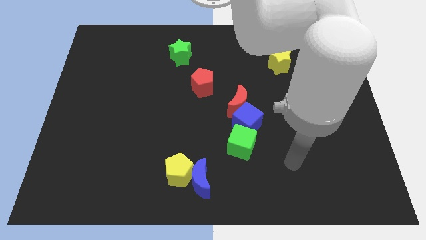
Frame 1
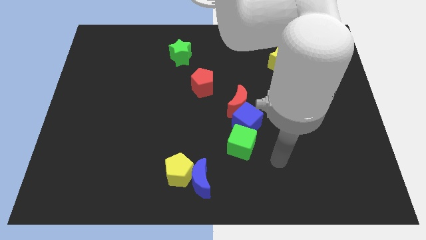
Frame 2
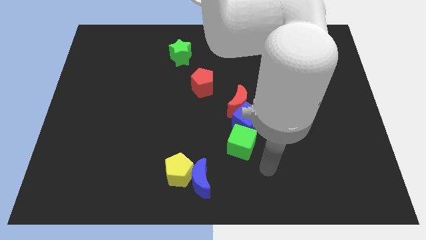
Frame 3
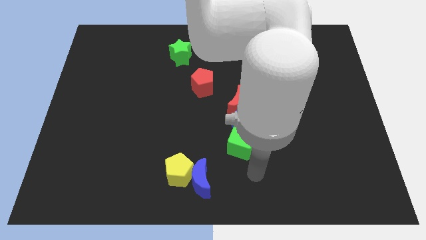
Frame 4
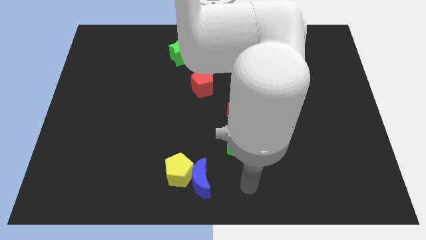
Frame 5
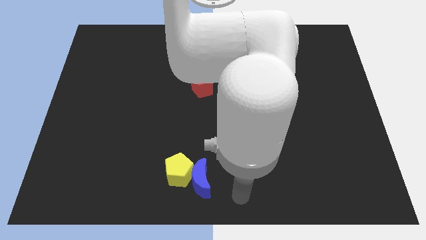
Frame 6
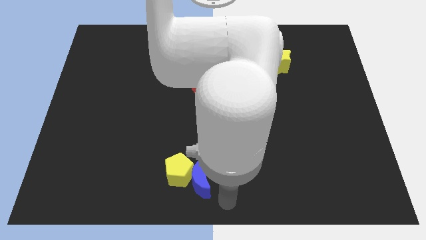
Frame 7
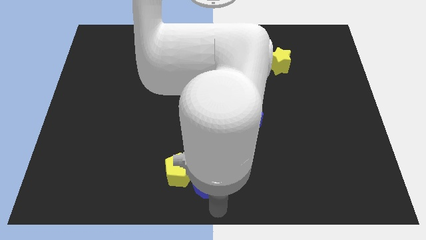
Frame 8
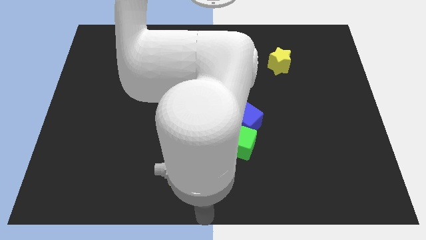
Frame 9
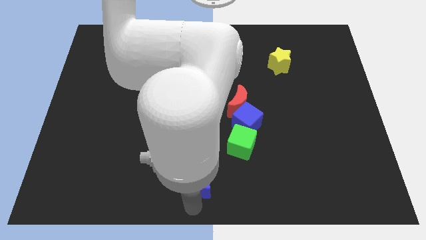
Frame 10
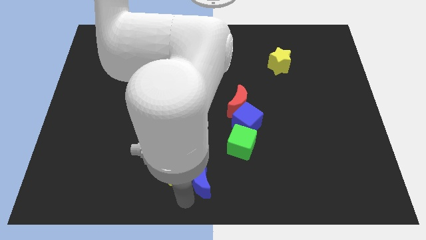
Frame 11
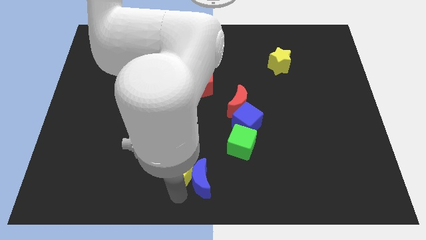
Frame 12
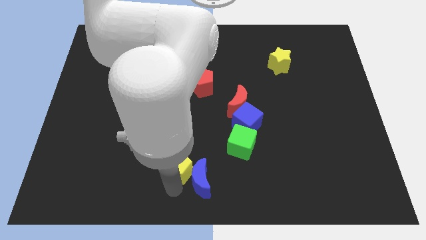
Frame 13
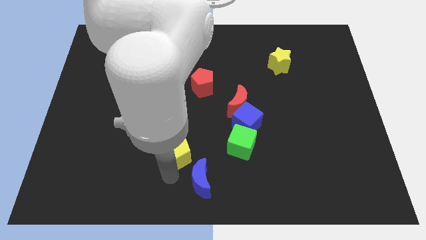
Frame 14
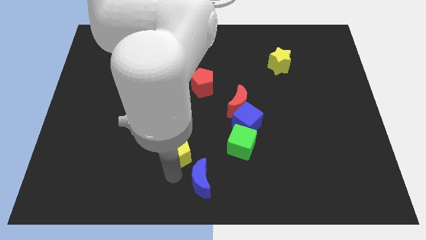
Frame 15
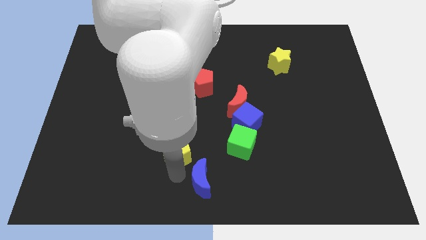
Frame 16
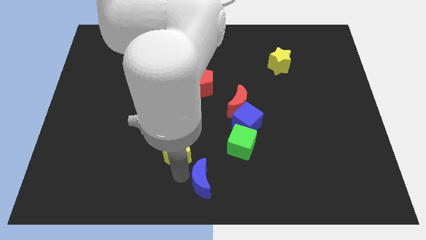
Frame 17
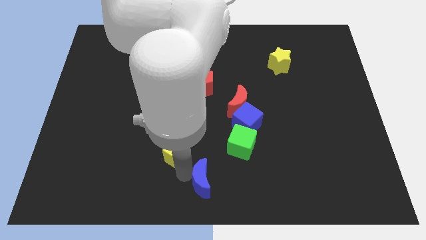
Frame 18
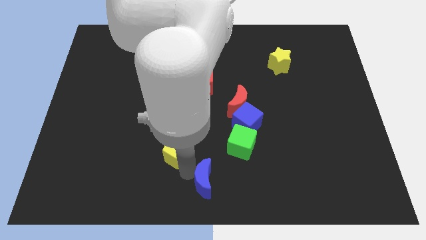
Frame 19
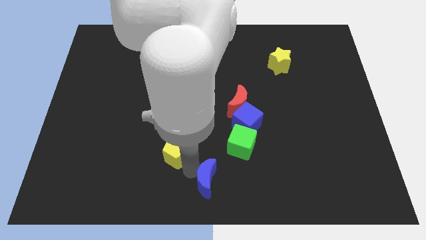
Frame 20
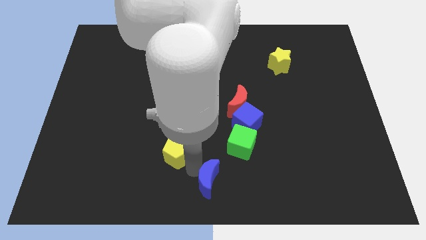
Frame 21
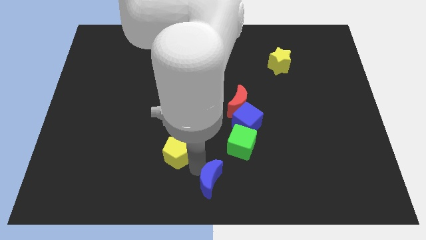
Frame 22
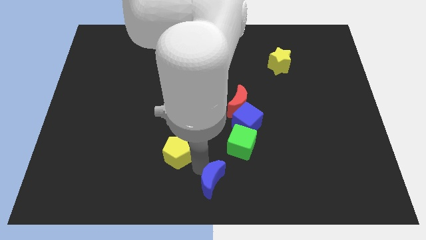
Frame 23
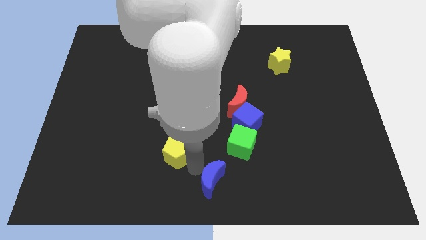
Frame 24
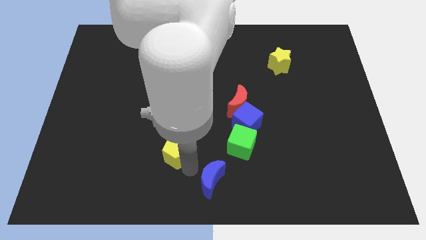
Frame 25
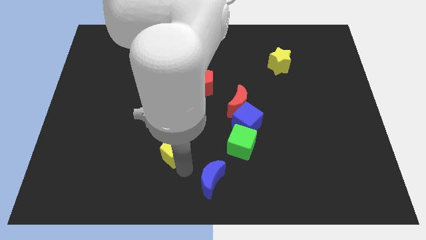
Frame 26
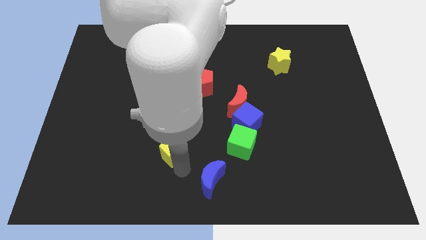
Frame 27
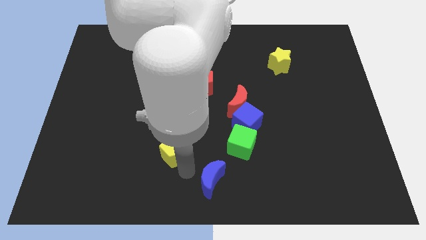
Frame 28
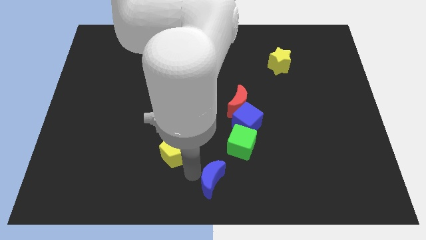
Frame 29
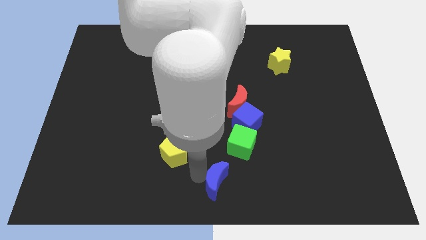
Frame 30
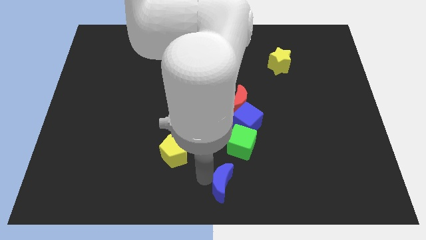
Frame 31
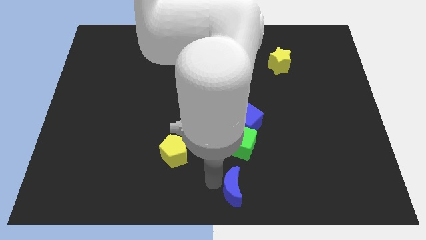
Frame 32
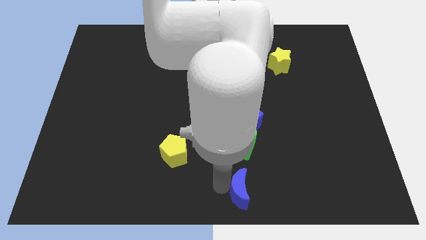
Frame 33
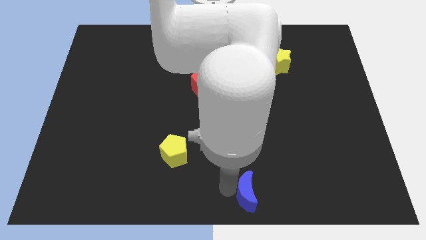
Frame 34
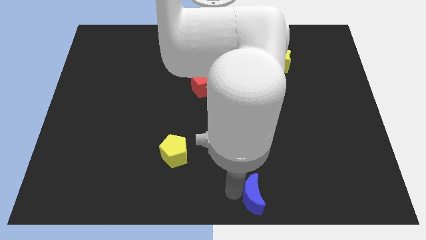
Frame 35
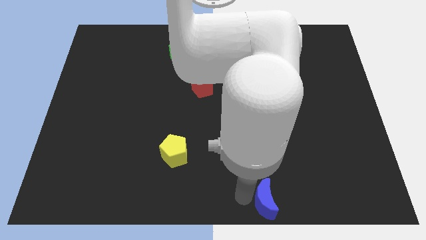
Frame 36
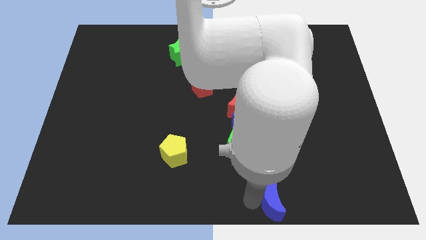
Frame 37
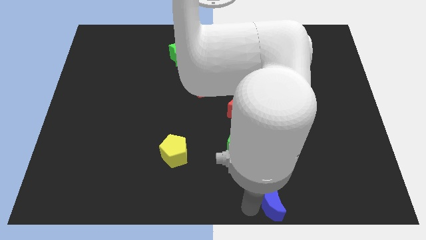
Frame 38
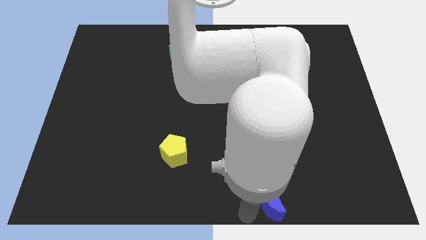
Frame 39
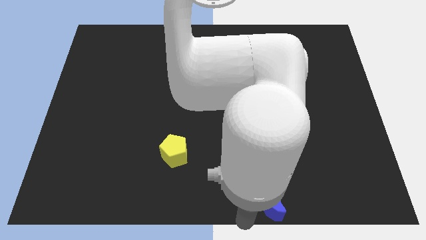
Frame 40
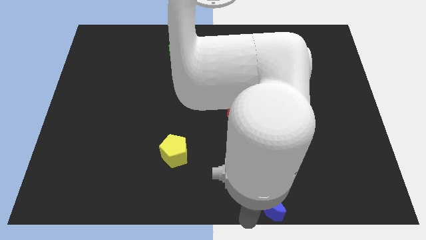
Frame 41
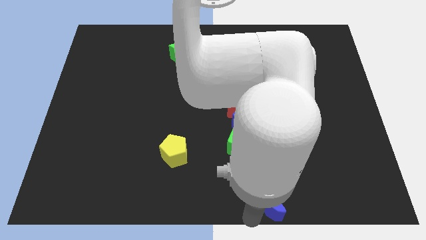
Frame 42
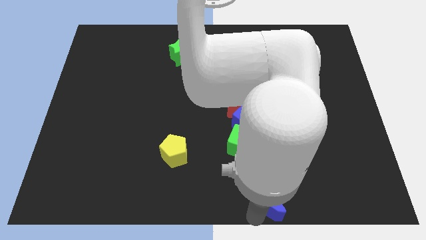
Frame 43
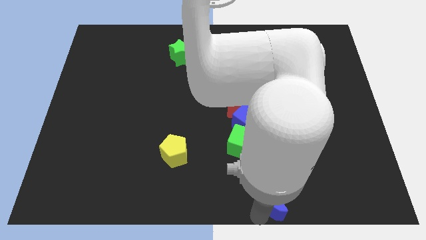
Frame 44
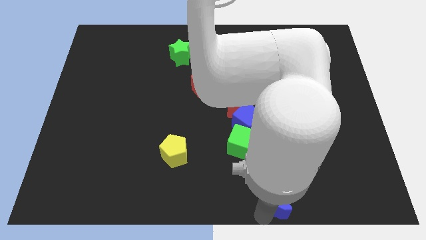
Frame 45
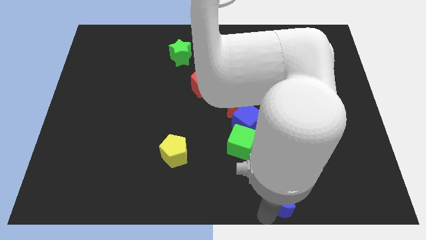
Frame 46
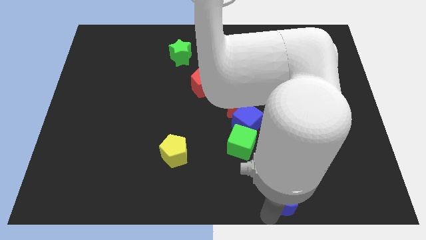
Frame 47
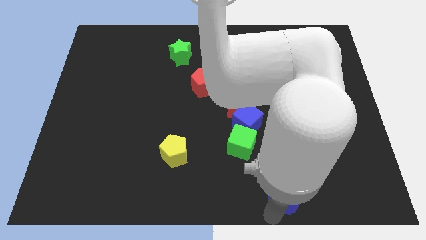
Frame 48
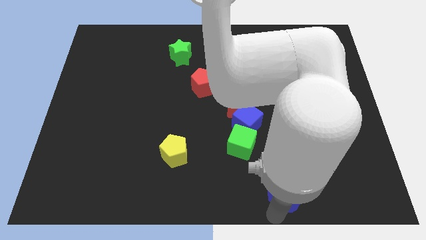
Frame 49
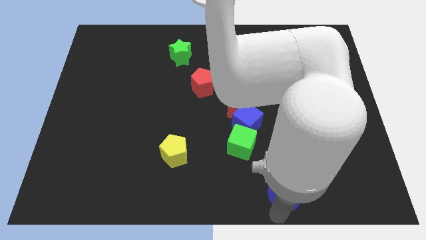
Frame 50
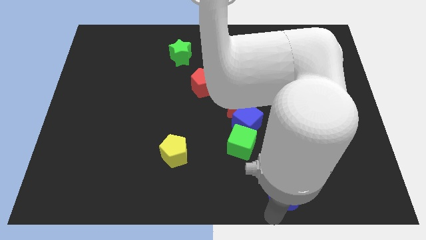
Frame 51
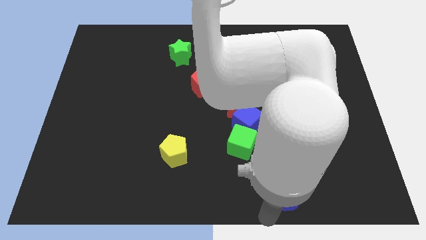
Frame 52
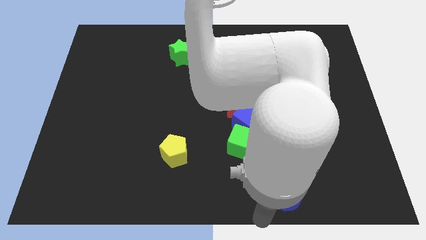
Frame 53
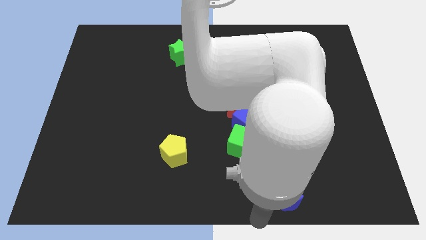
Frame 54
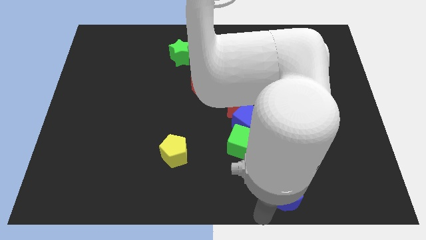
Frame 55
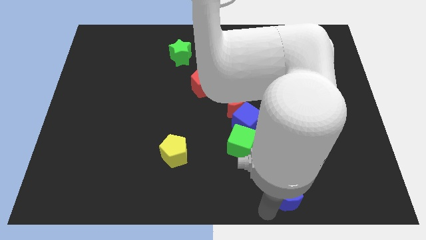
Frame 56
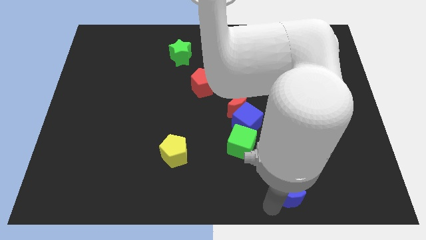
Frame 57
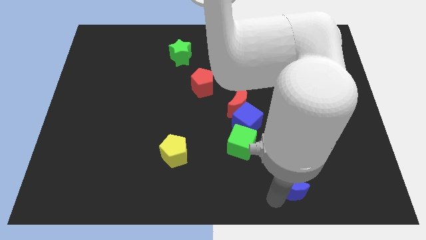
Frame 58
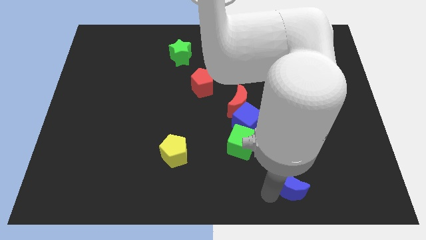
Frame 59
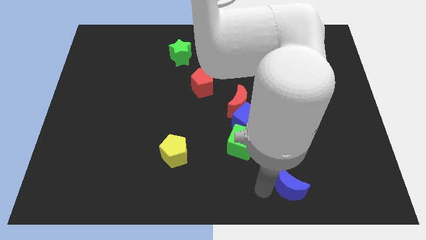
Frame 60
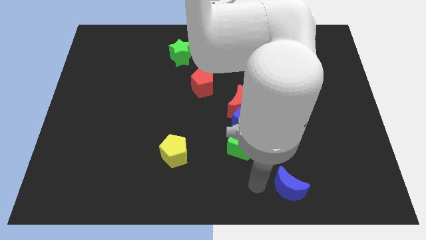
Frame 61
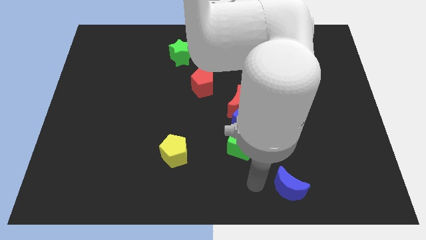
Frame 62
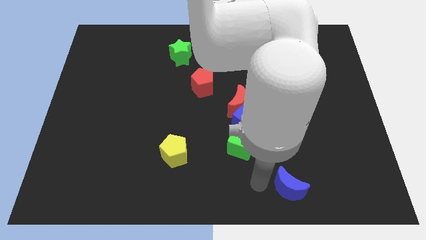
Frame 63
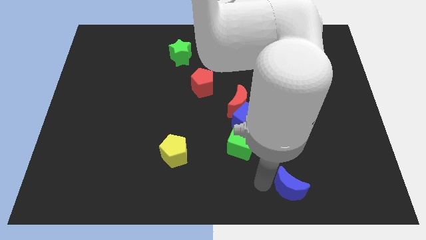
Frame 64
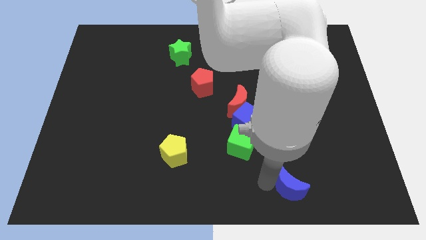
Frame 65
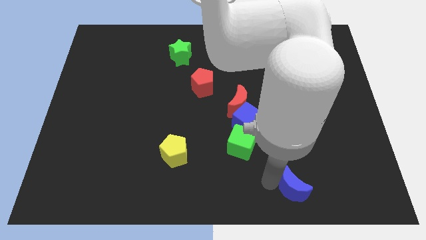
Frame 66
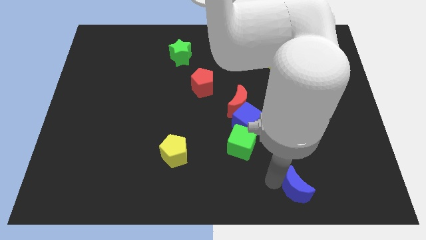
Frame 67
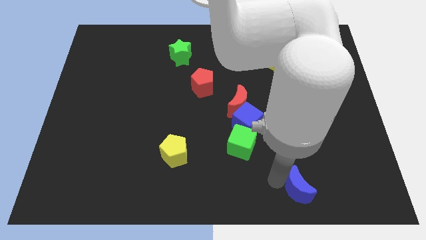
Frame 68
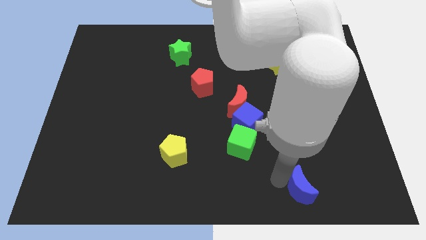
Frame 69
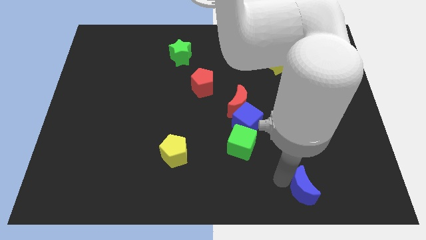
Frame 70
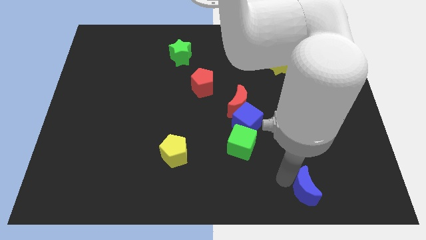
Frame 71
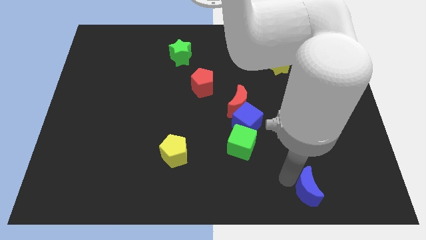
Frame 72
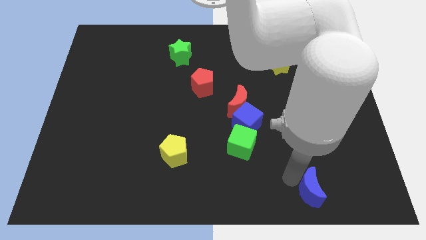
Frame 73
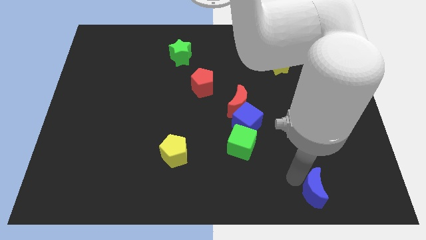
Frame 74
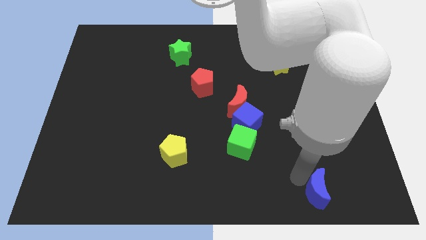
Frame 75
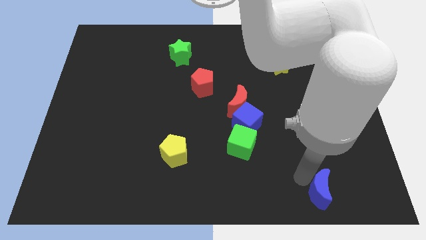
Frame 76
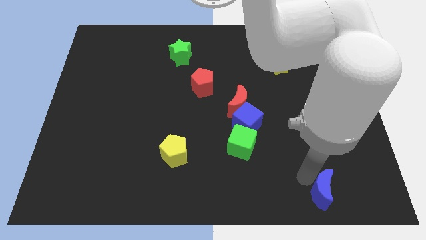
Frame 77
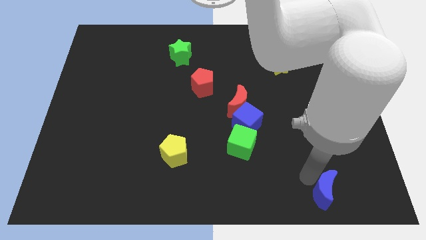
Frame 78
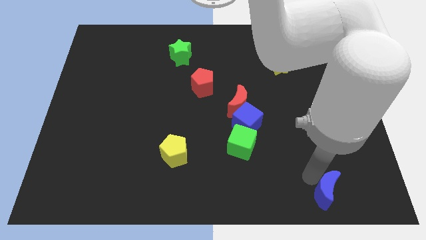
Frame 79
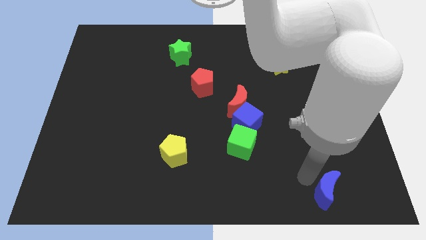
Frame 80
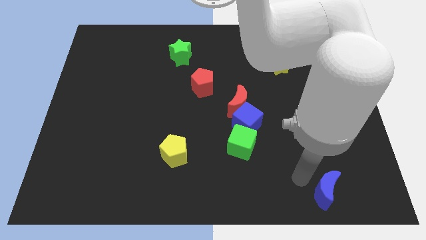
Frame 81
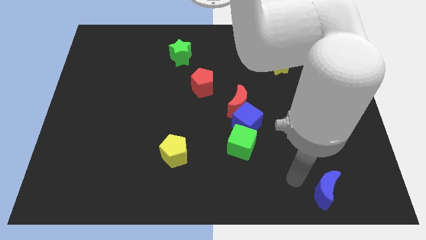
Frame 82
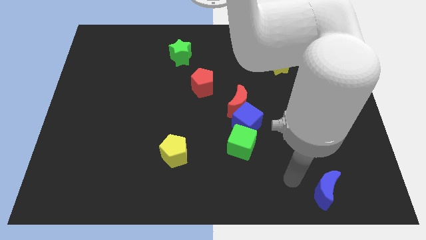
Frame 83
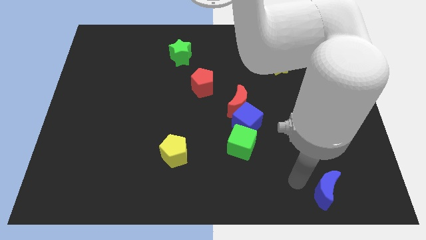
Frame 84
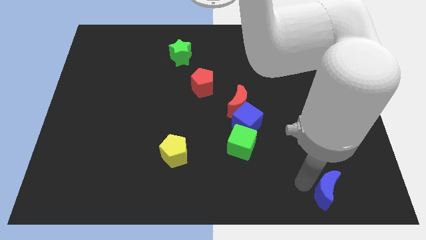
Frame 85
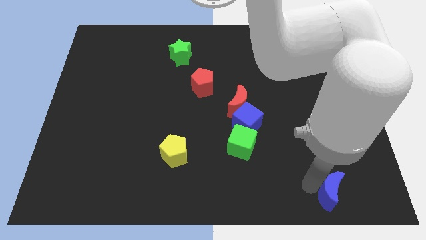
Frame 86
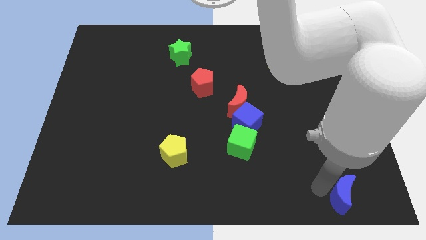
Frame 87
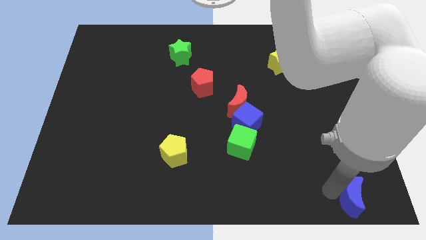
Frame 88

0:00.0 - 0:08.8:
push the blue moon to the bottom right corner
